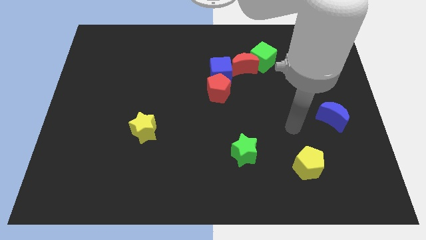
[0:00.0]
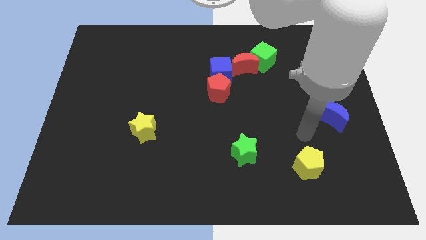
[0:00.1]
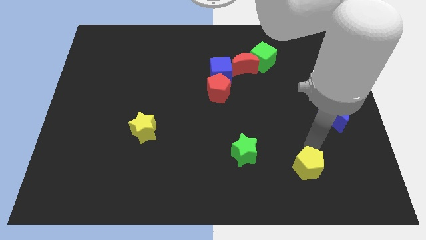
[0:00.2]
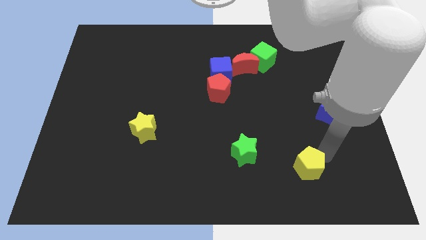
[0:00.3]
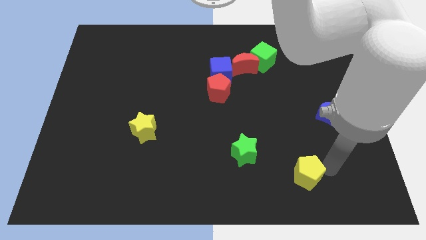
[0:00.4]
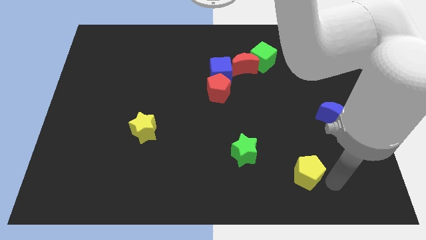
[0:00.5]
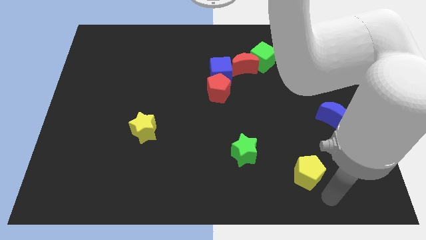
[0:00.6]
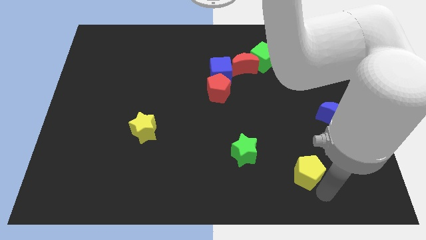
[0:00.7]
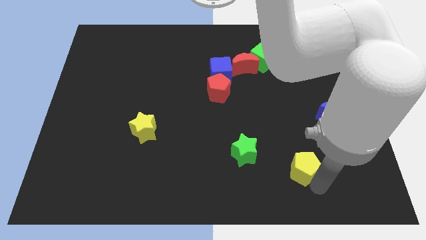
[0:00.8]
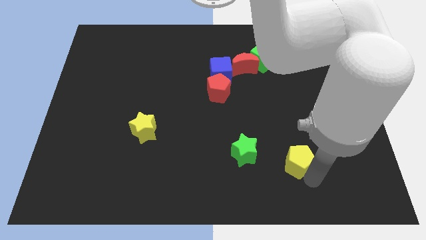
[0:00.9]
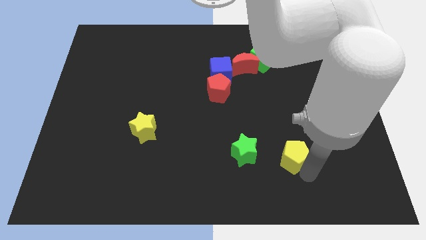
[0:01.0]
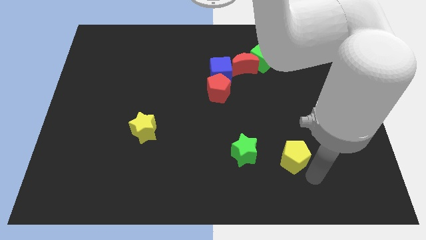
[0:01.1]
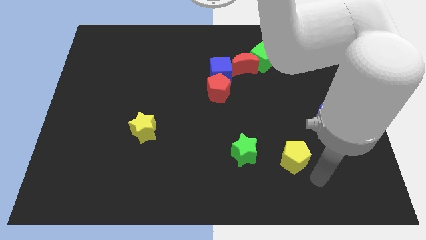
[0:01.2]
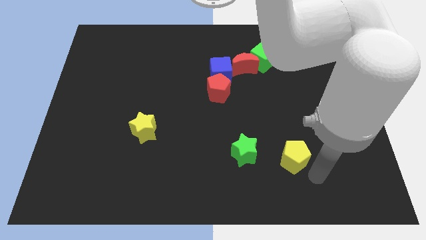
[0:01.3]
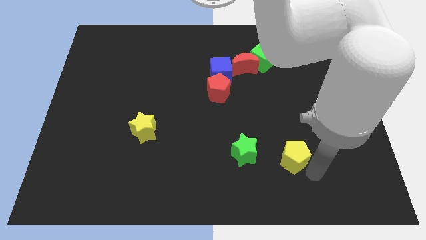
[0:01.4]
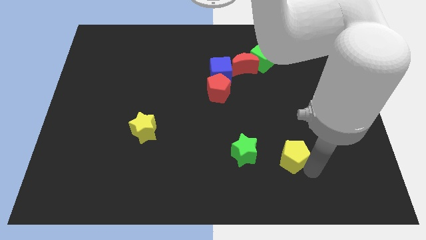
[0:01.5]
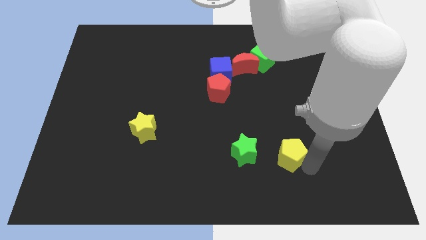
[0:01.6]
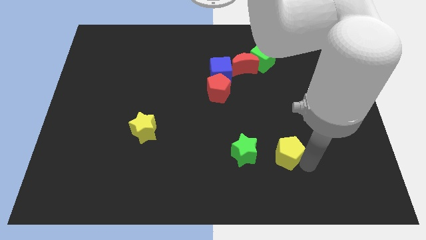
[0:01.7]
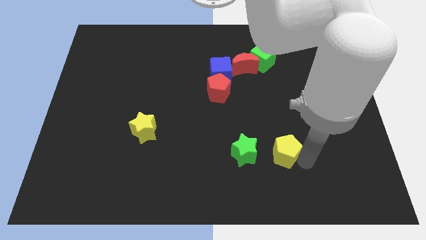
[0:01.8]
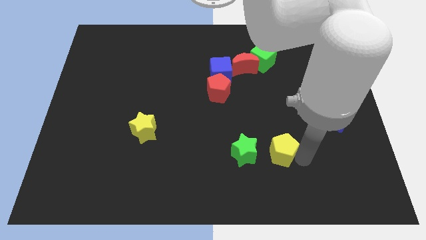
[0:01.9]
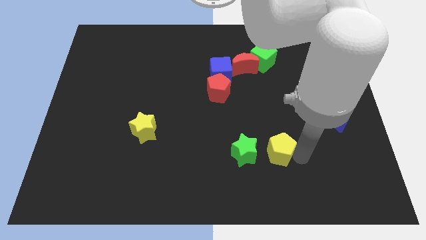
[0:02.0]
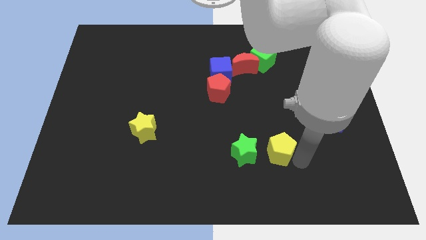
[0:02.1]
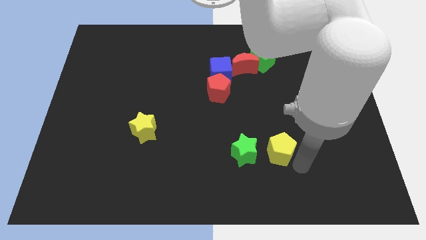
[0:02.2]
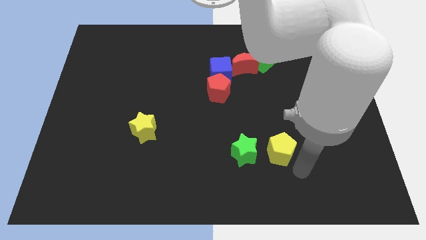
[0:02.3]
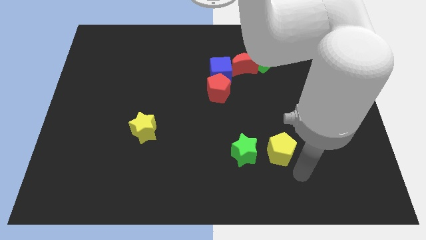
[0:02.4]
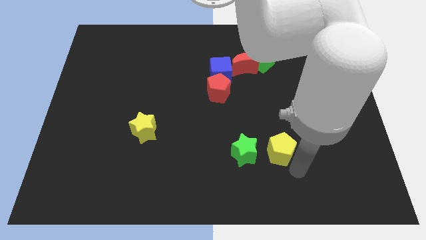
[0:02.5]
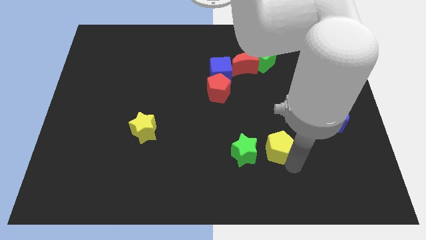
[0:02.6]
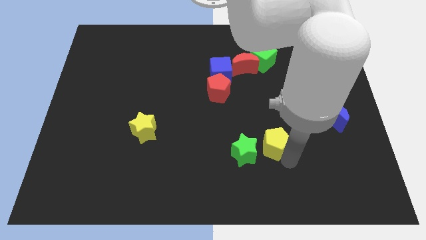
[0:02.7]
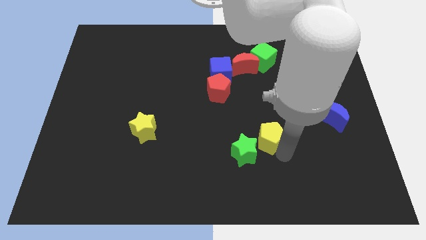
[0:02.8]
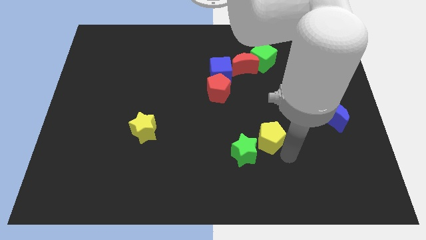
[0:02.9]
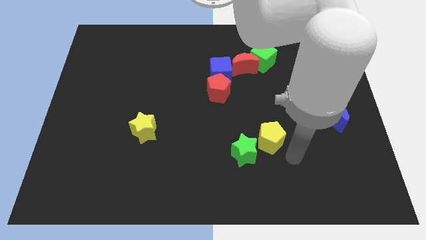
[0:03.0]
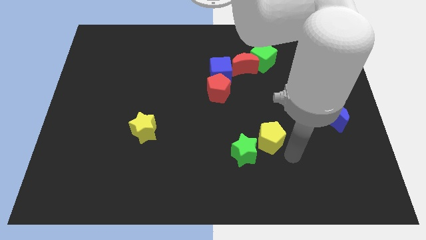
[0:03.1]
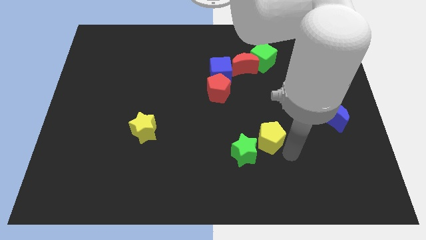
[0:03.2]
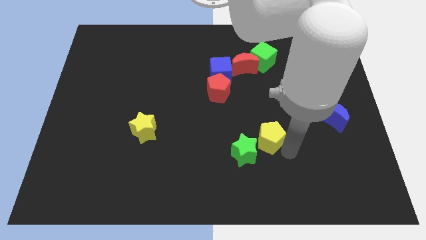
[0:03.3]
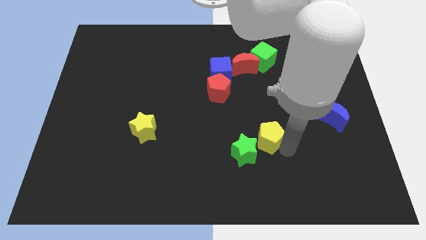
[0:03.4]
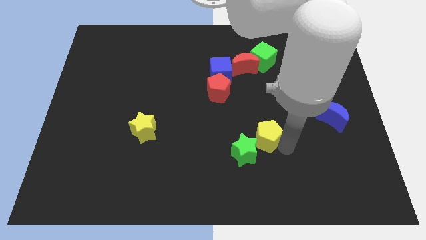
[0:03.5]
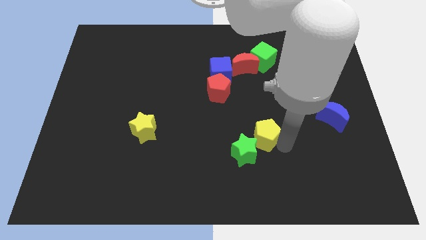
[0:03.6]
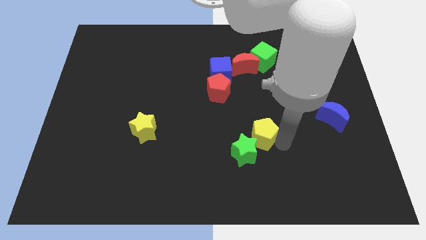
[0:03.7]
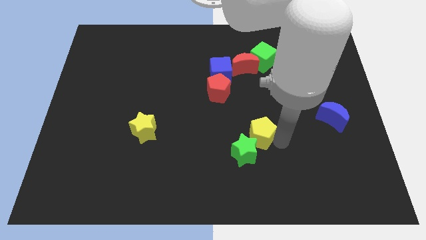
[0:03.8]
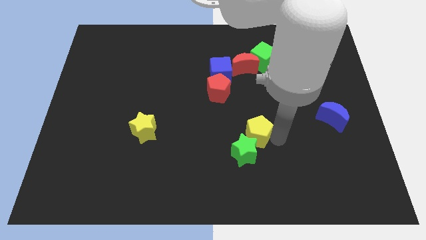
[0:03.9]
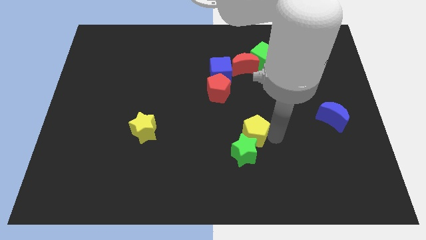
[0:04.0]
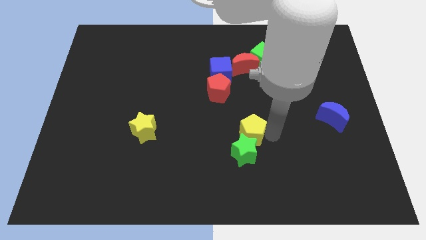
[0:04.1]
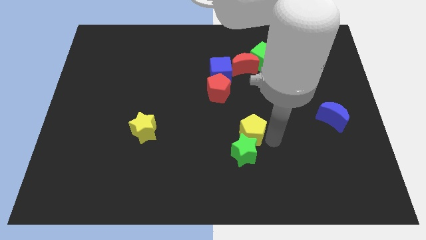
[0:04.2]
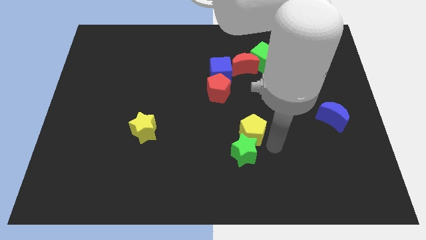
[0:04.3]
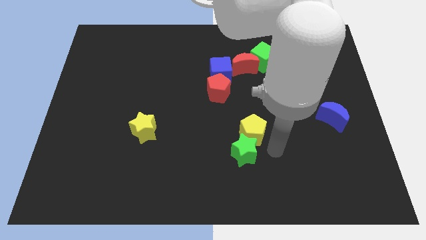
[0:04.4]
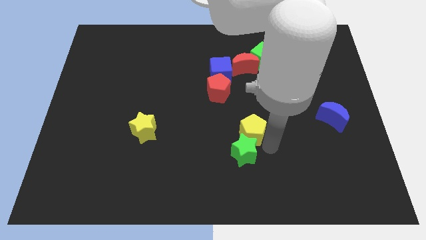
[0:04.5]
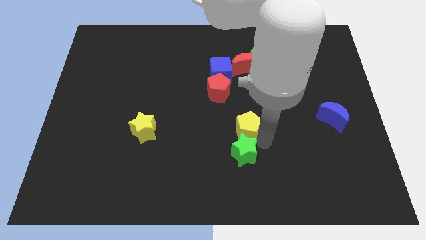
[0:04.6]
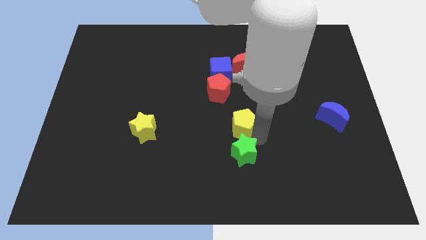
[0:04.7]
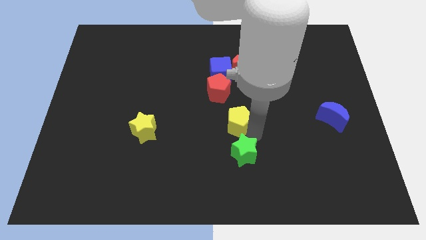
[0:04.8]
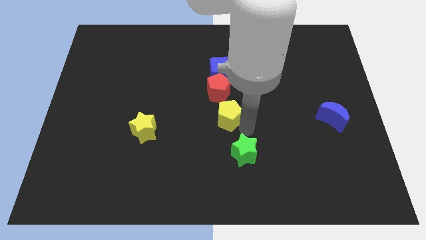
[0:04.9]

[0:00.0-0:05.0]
push the yellow pentagon up and left

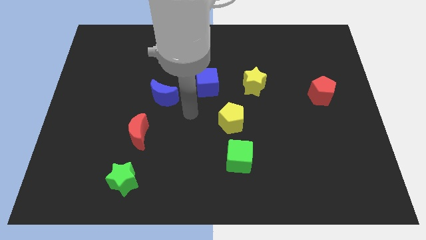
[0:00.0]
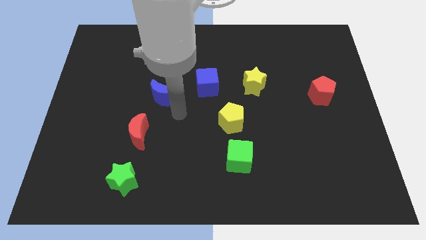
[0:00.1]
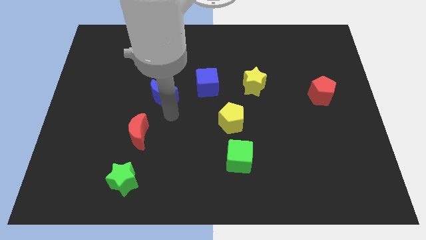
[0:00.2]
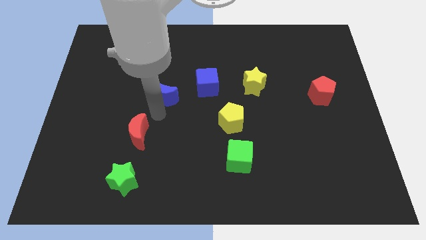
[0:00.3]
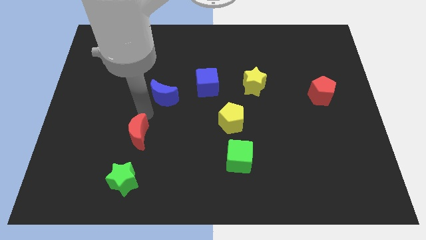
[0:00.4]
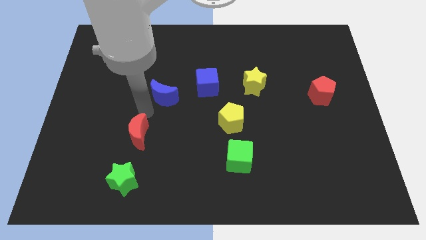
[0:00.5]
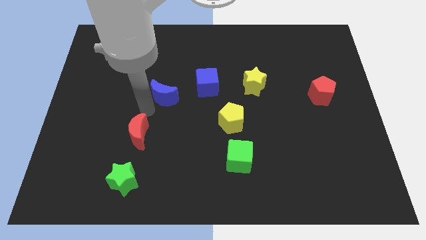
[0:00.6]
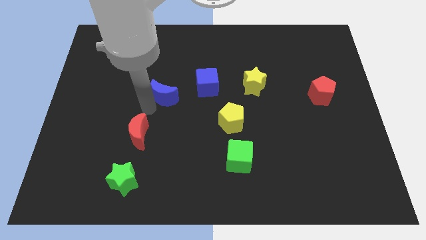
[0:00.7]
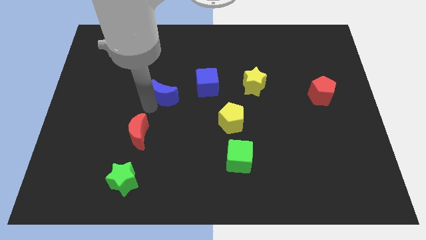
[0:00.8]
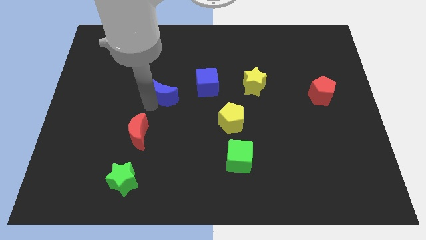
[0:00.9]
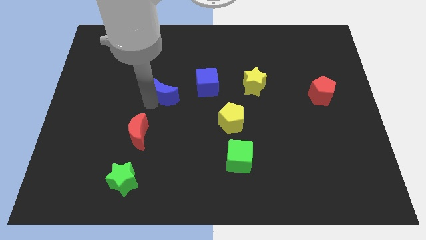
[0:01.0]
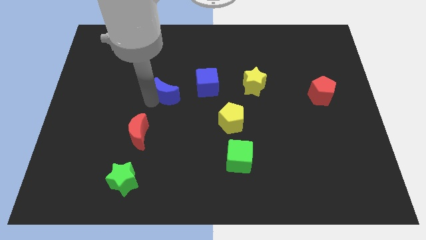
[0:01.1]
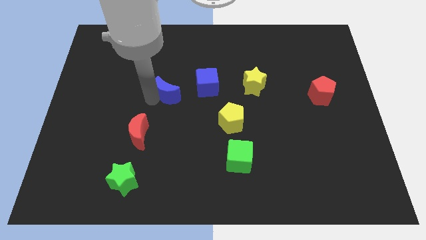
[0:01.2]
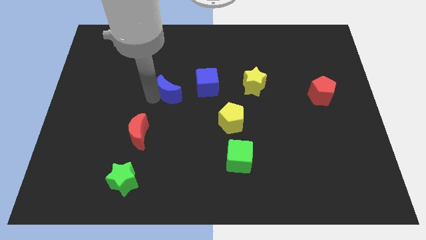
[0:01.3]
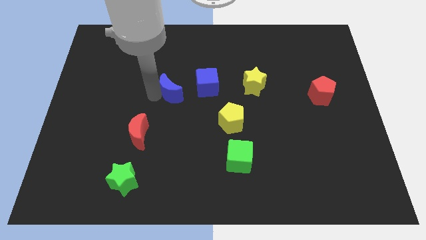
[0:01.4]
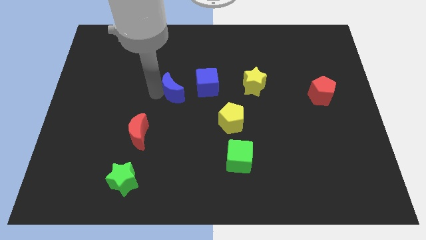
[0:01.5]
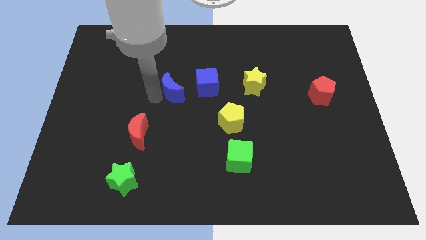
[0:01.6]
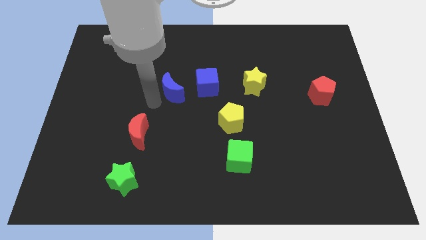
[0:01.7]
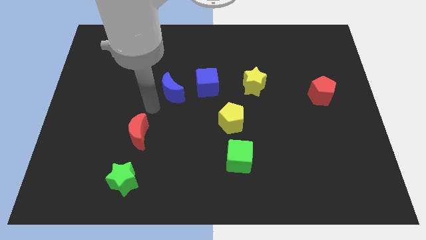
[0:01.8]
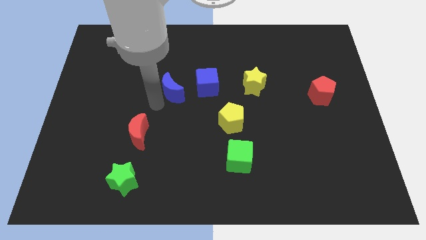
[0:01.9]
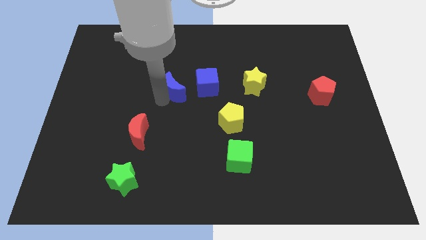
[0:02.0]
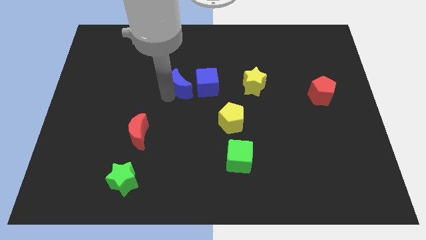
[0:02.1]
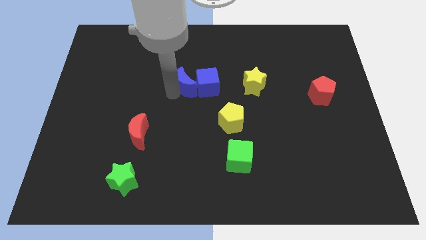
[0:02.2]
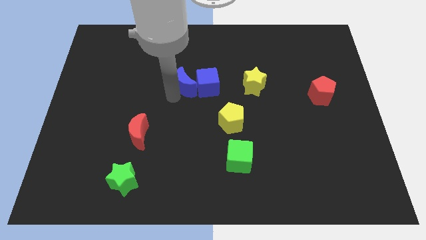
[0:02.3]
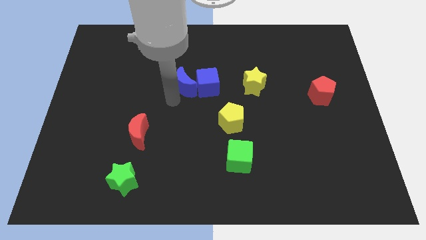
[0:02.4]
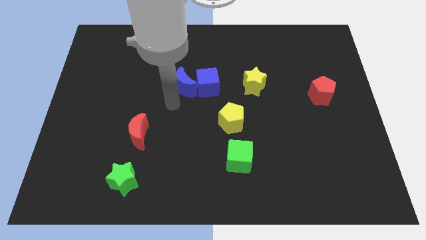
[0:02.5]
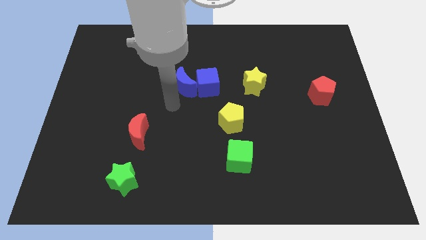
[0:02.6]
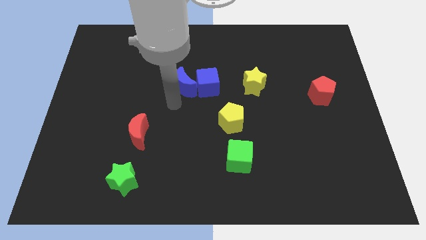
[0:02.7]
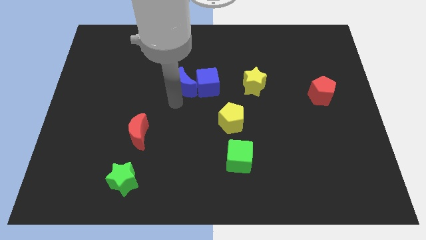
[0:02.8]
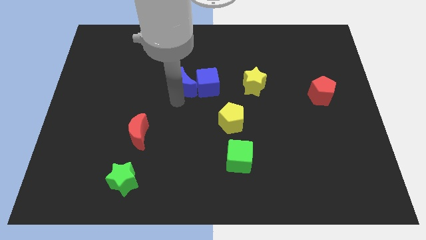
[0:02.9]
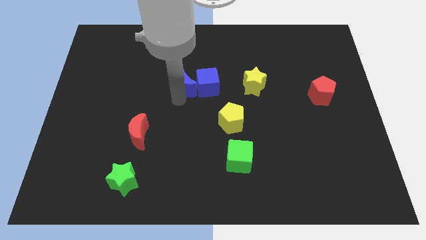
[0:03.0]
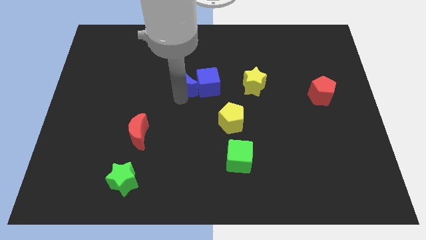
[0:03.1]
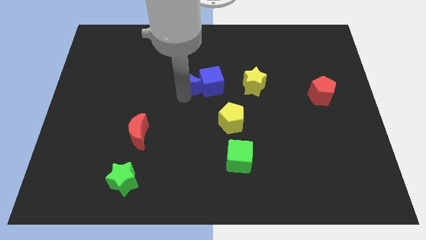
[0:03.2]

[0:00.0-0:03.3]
move the blue moon up and right somewhat
